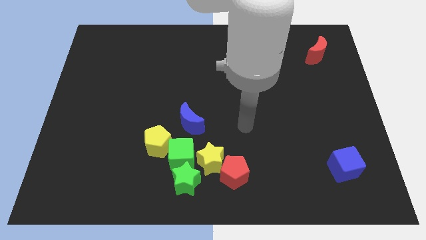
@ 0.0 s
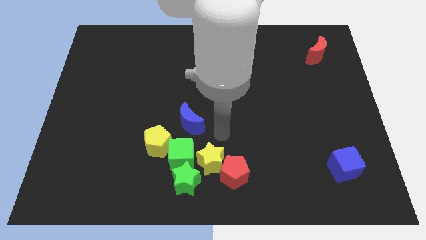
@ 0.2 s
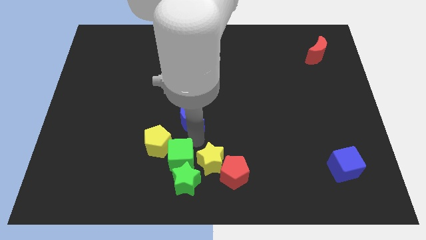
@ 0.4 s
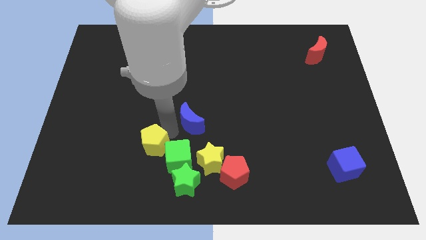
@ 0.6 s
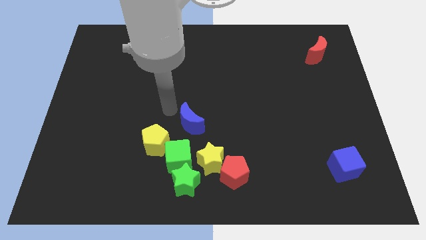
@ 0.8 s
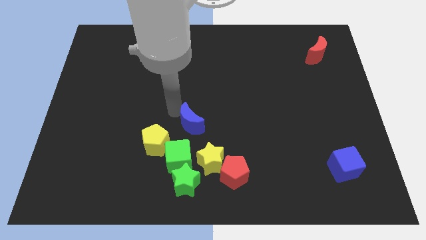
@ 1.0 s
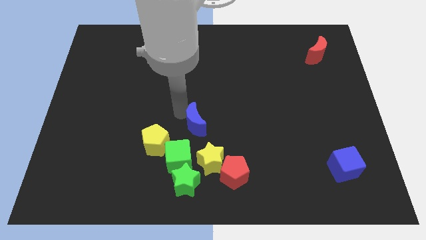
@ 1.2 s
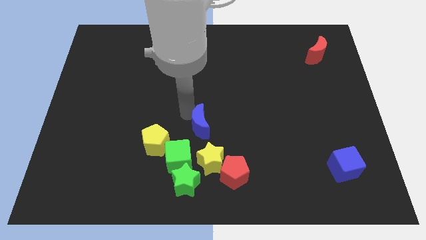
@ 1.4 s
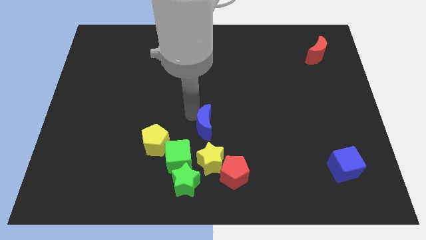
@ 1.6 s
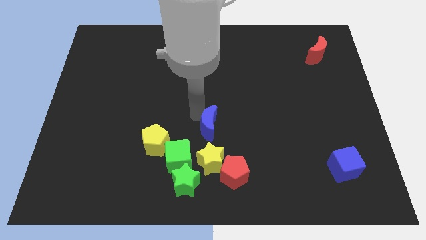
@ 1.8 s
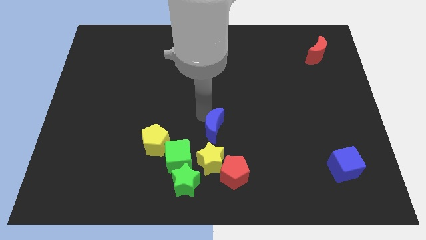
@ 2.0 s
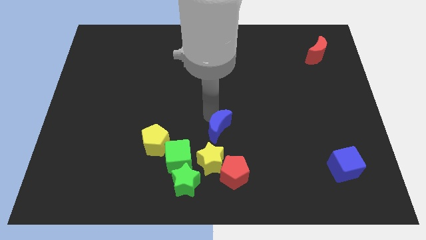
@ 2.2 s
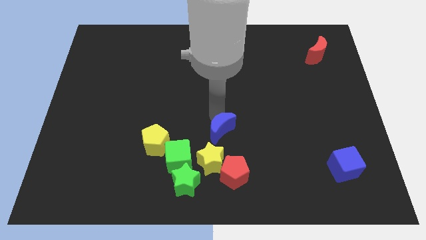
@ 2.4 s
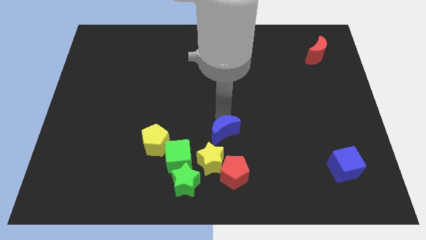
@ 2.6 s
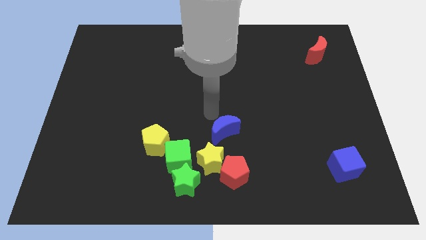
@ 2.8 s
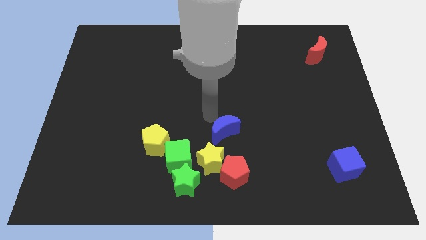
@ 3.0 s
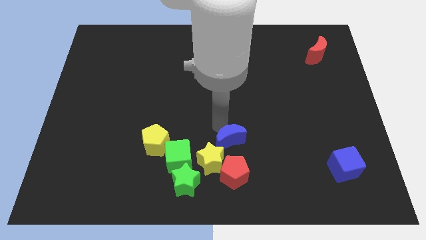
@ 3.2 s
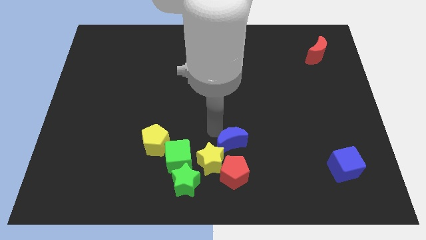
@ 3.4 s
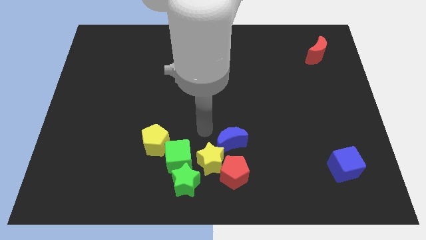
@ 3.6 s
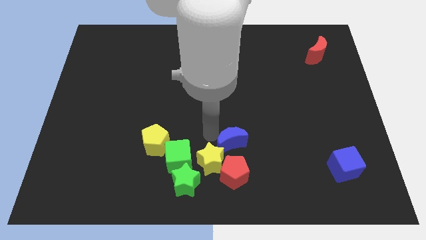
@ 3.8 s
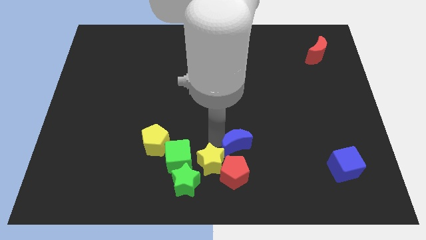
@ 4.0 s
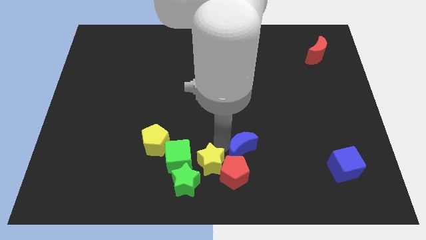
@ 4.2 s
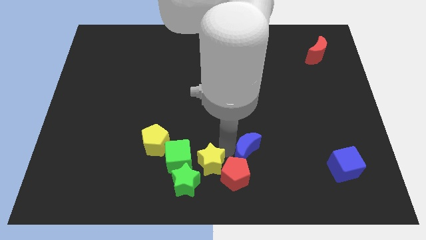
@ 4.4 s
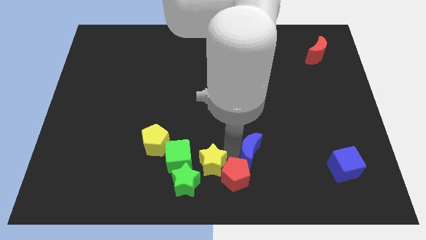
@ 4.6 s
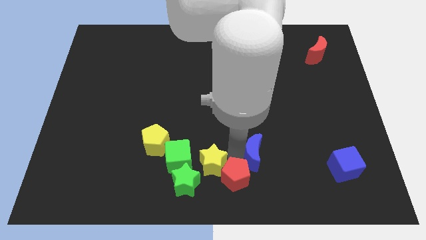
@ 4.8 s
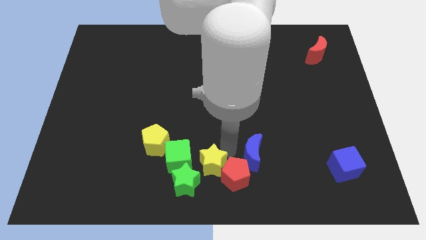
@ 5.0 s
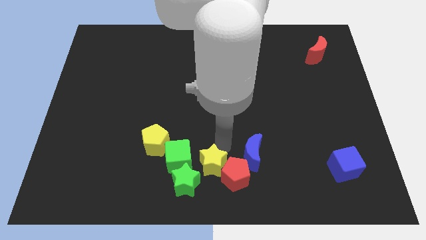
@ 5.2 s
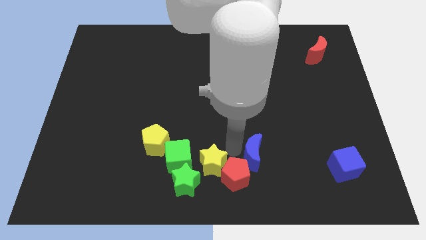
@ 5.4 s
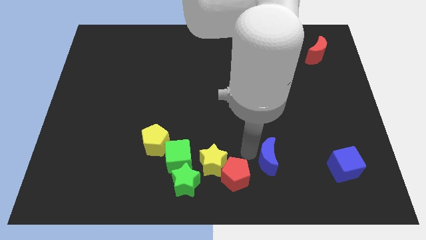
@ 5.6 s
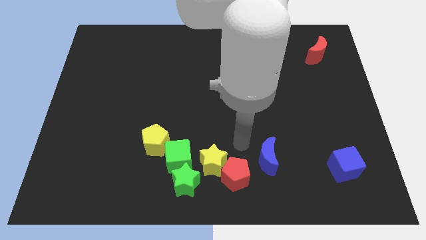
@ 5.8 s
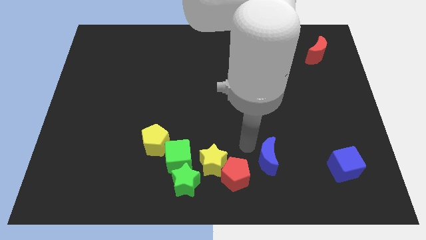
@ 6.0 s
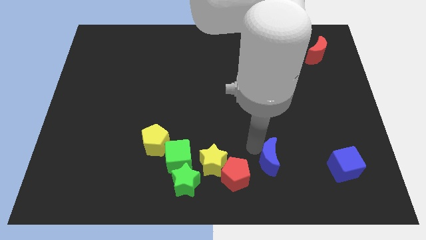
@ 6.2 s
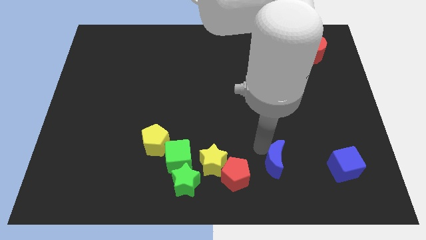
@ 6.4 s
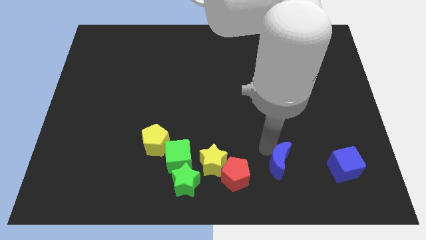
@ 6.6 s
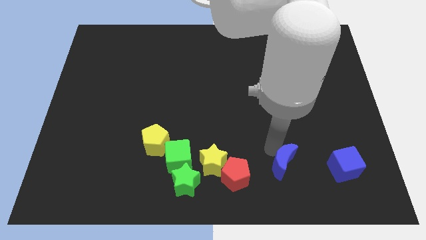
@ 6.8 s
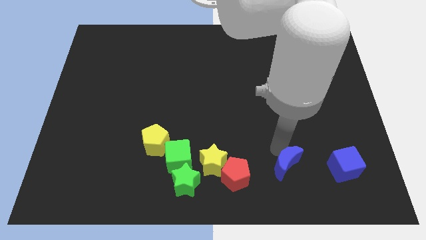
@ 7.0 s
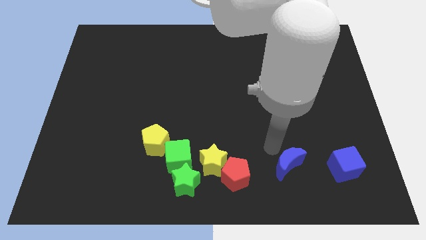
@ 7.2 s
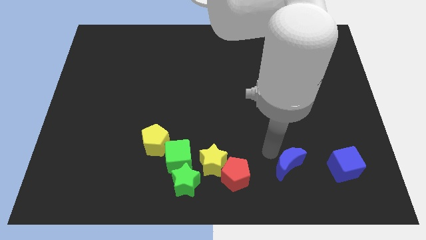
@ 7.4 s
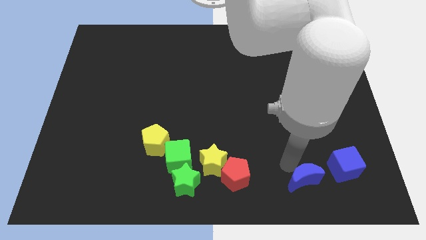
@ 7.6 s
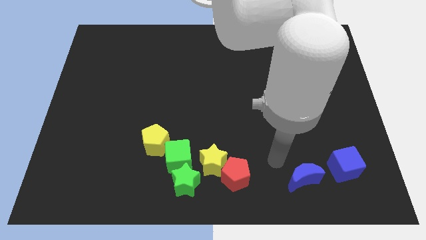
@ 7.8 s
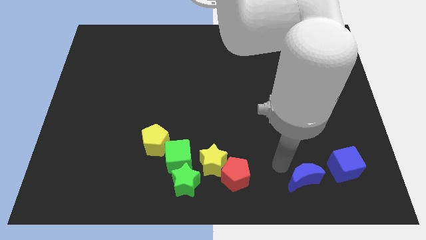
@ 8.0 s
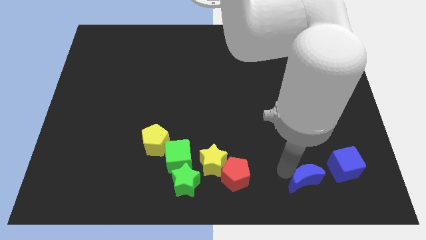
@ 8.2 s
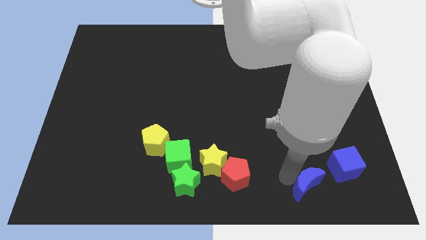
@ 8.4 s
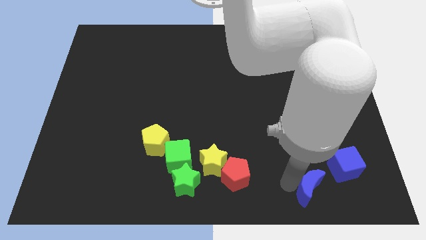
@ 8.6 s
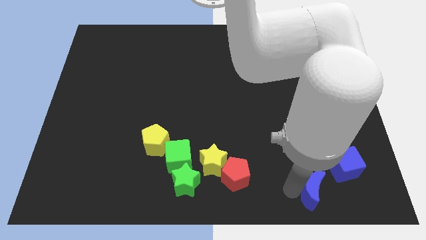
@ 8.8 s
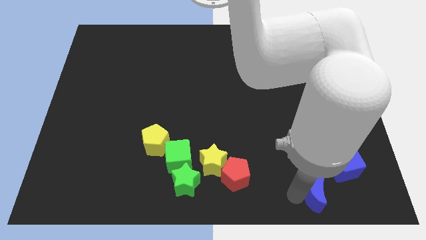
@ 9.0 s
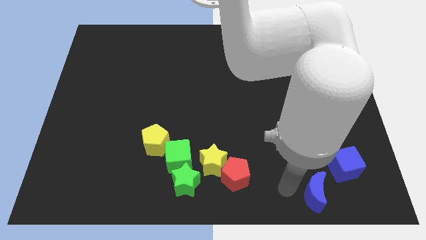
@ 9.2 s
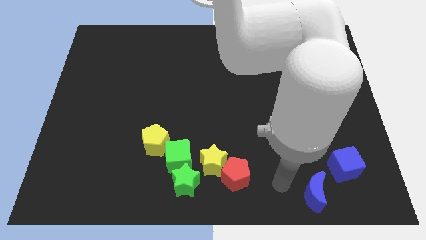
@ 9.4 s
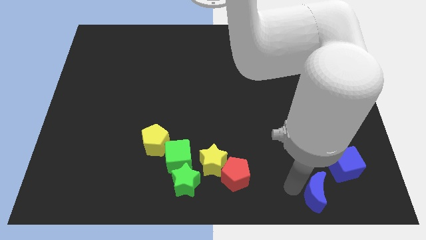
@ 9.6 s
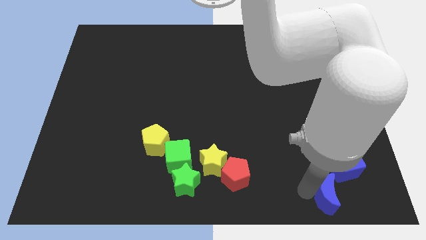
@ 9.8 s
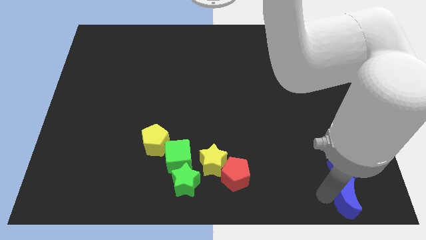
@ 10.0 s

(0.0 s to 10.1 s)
push the blue moon to the lower right corner
